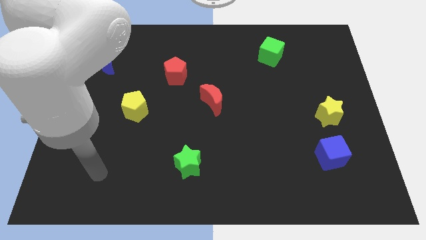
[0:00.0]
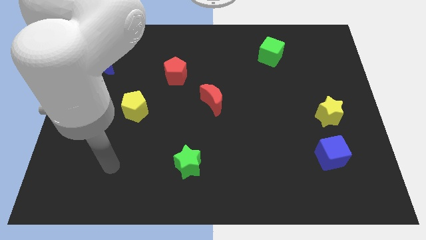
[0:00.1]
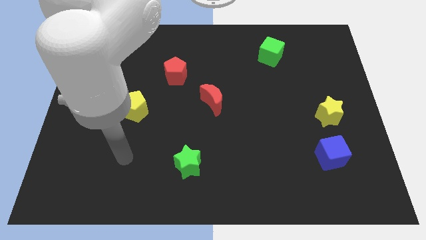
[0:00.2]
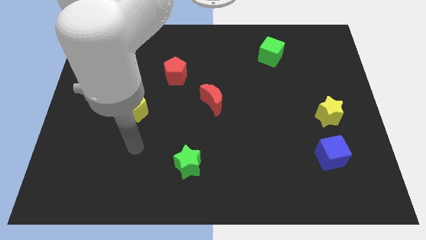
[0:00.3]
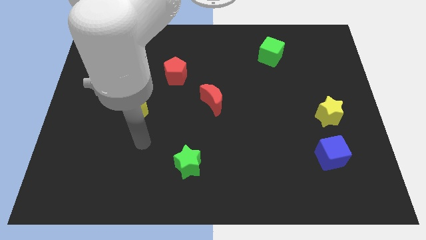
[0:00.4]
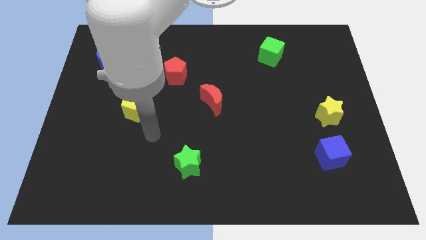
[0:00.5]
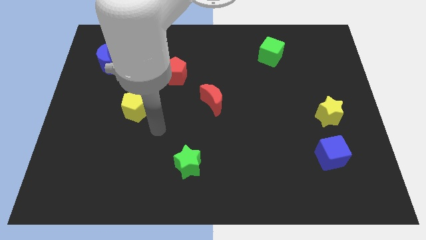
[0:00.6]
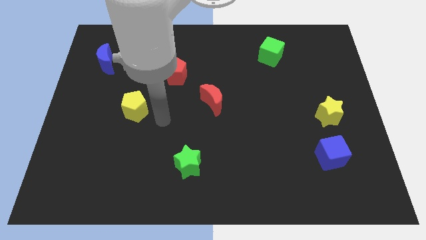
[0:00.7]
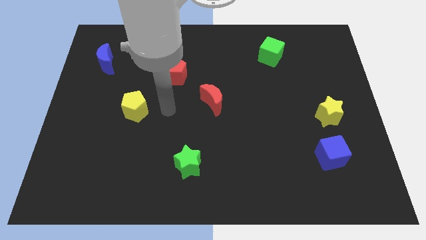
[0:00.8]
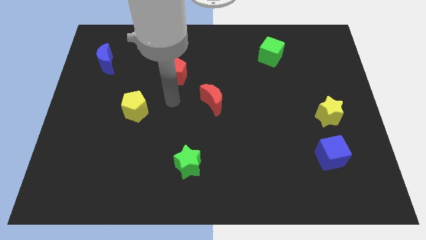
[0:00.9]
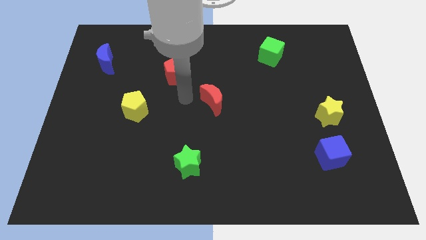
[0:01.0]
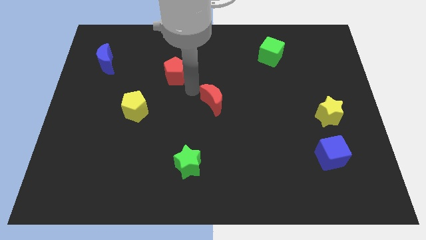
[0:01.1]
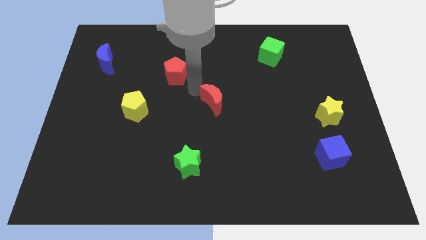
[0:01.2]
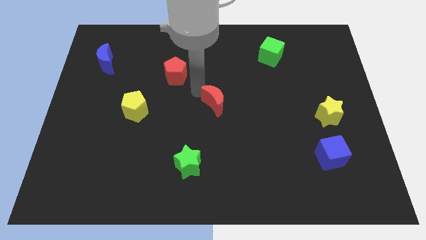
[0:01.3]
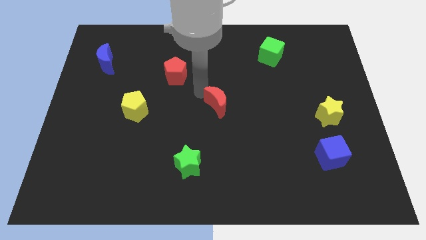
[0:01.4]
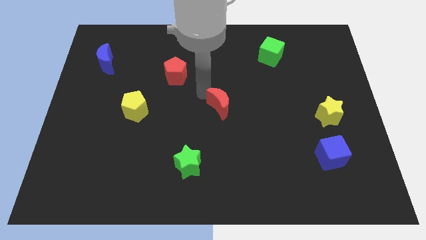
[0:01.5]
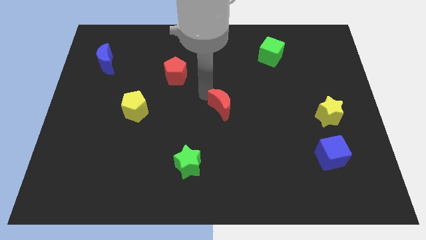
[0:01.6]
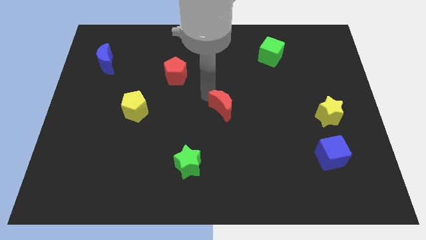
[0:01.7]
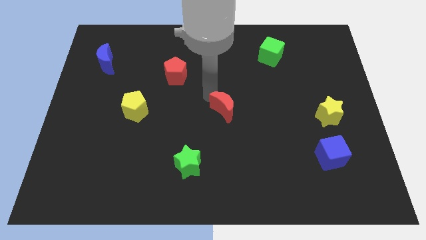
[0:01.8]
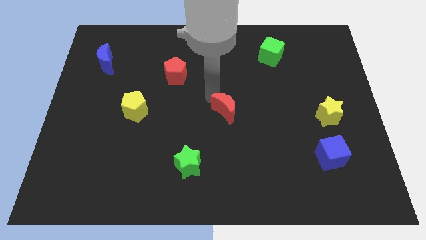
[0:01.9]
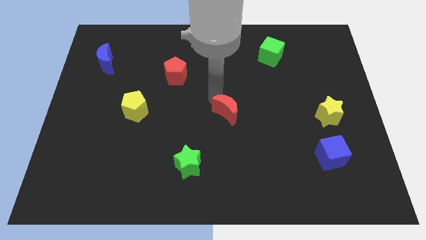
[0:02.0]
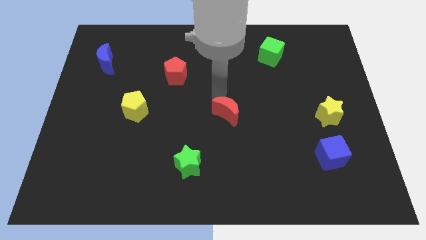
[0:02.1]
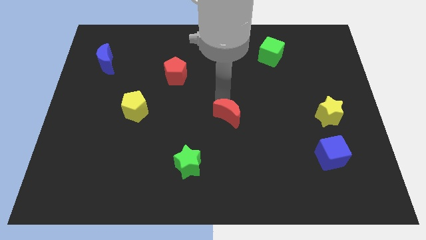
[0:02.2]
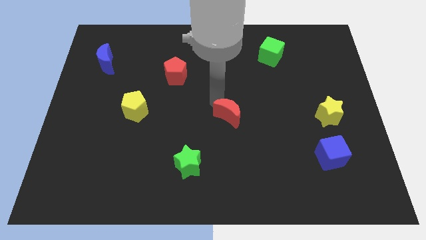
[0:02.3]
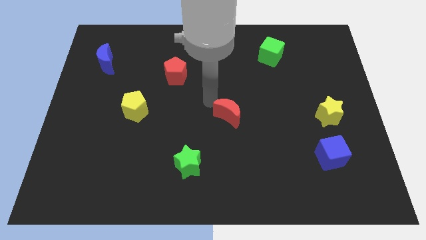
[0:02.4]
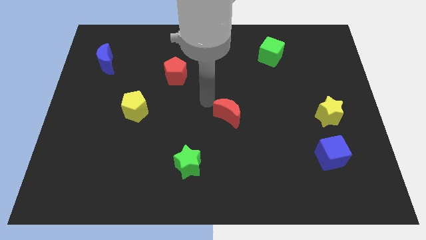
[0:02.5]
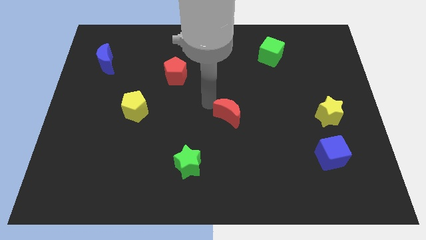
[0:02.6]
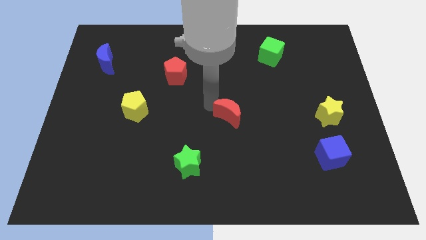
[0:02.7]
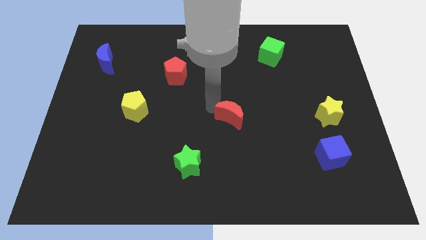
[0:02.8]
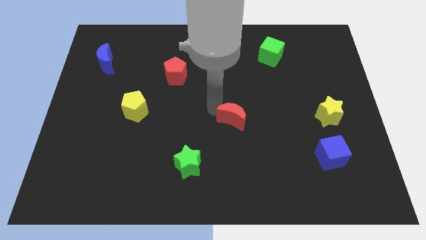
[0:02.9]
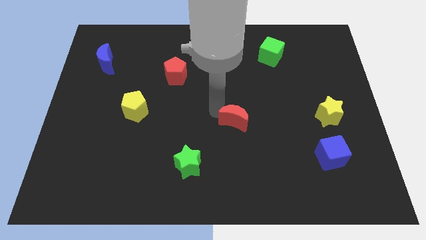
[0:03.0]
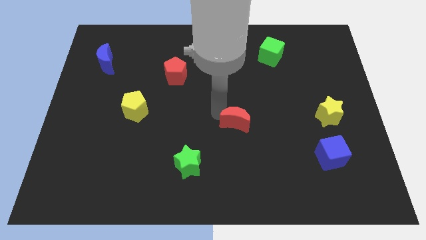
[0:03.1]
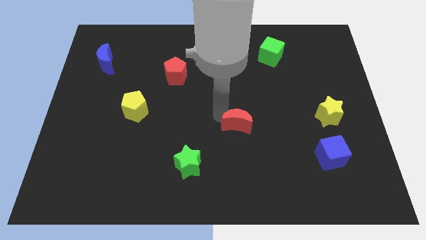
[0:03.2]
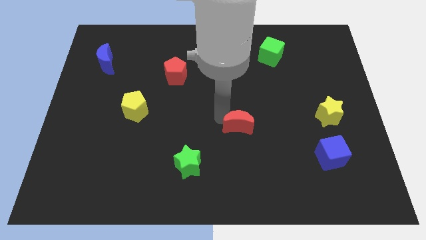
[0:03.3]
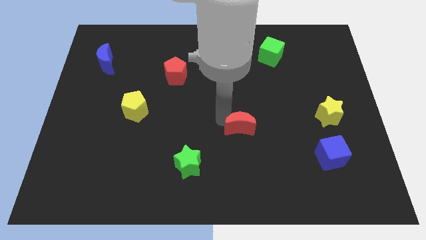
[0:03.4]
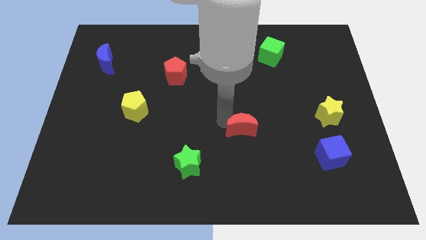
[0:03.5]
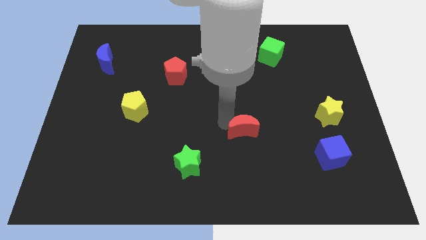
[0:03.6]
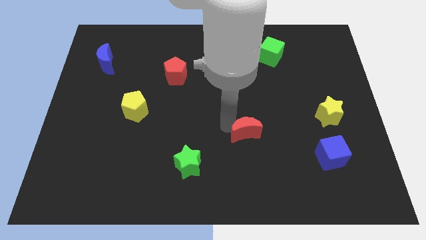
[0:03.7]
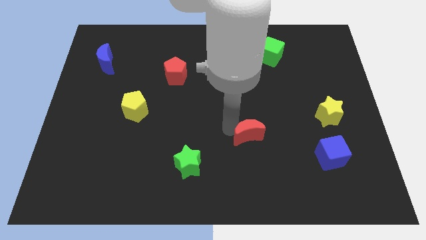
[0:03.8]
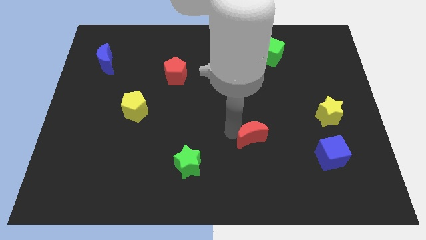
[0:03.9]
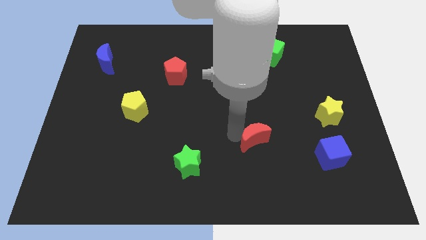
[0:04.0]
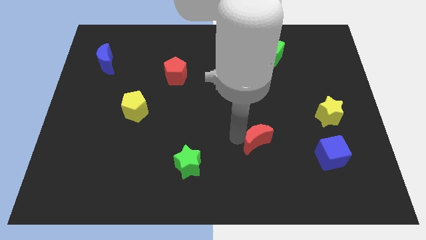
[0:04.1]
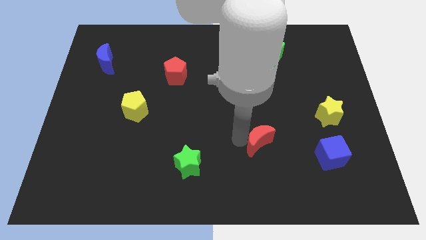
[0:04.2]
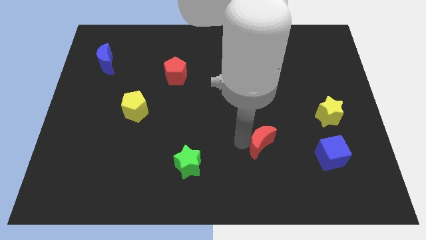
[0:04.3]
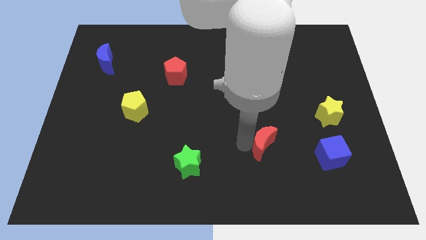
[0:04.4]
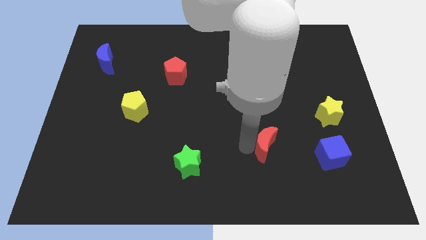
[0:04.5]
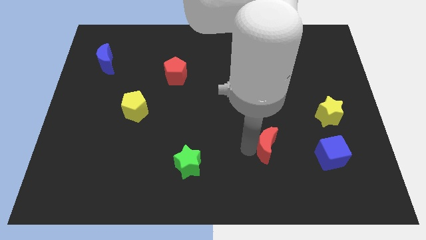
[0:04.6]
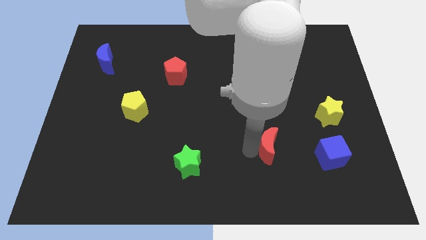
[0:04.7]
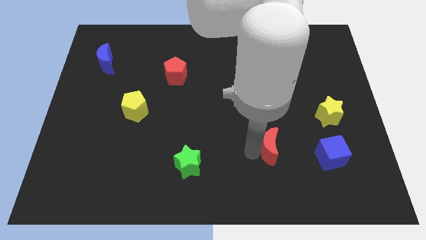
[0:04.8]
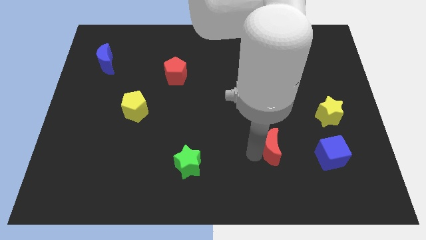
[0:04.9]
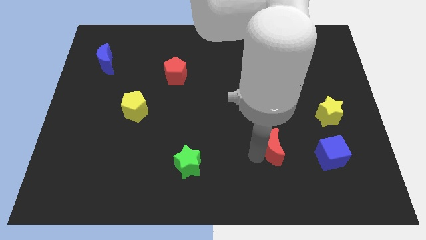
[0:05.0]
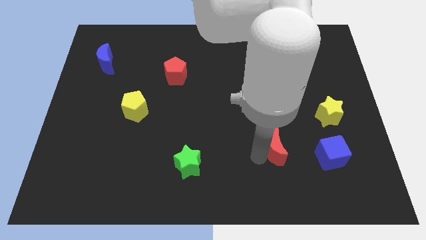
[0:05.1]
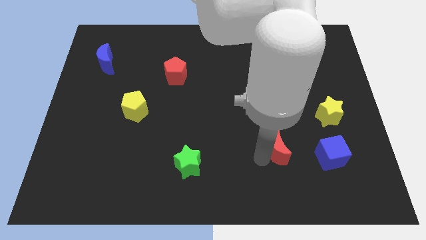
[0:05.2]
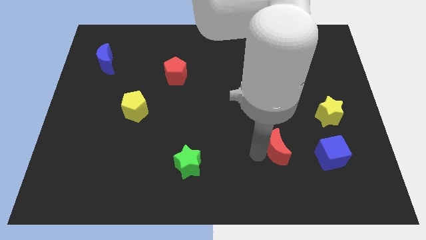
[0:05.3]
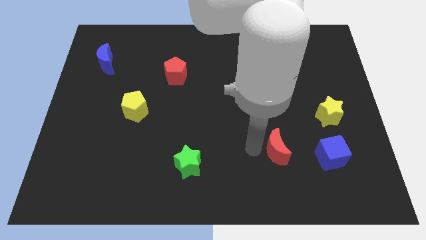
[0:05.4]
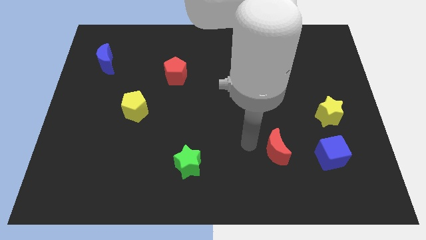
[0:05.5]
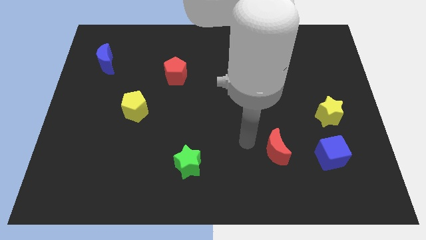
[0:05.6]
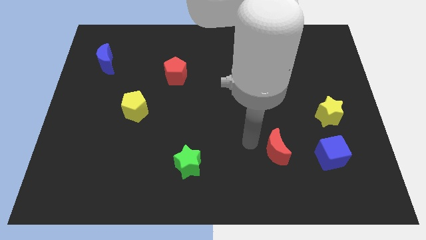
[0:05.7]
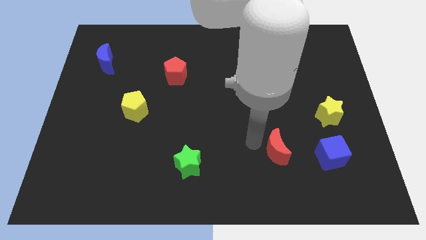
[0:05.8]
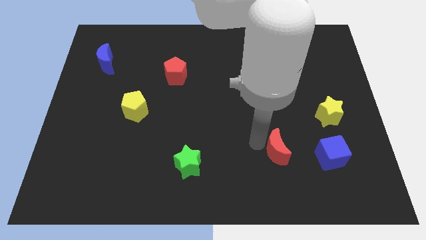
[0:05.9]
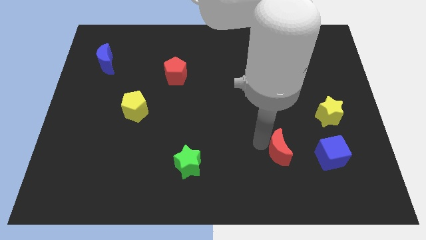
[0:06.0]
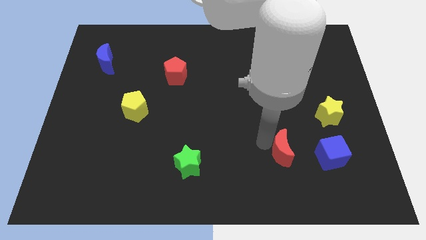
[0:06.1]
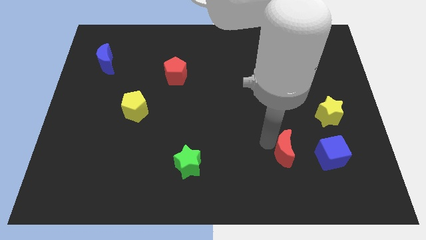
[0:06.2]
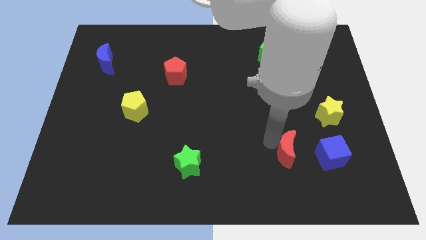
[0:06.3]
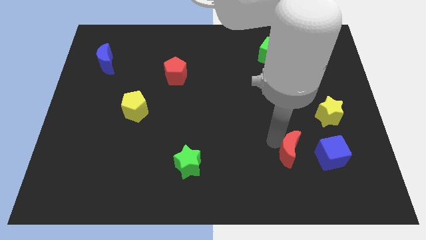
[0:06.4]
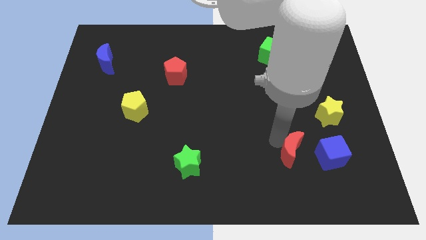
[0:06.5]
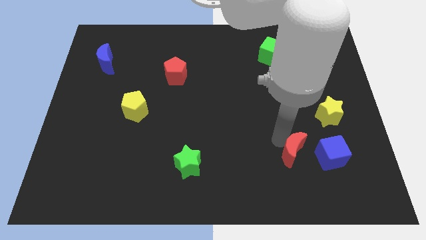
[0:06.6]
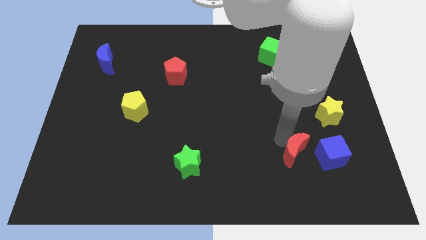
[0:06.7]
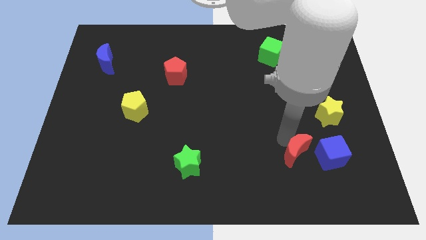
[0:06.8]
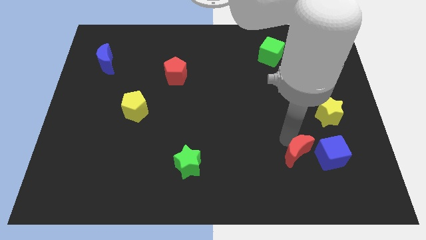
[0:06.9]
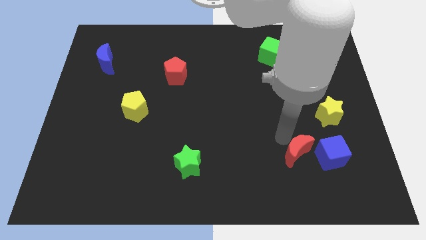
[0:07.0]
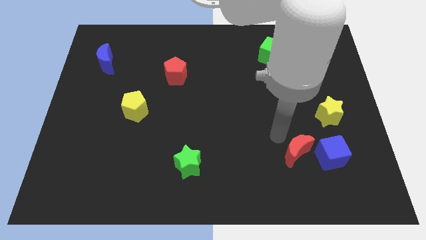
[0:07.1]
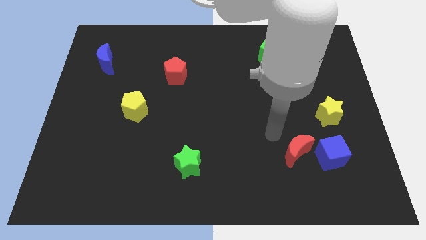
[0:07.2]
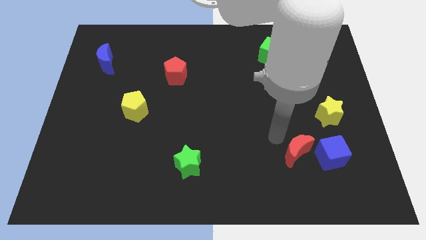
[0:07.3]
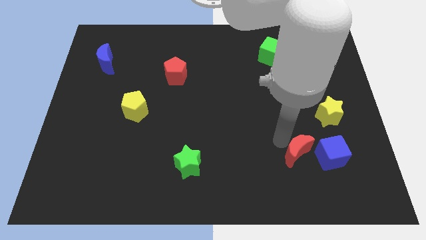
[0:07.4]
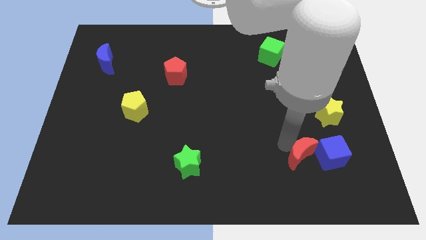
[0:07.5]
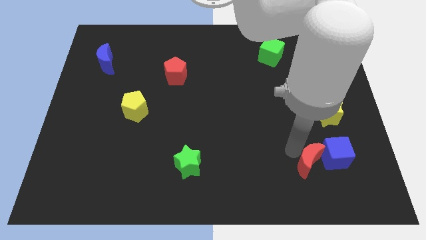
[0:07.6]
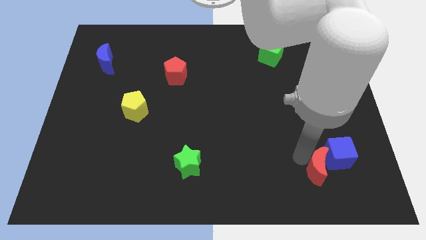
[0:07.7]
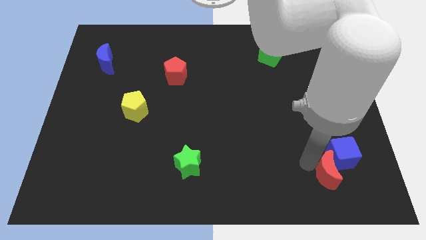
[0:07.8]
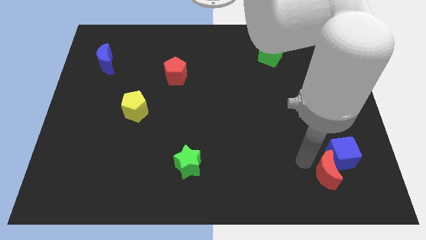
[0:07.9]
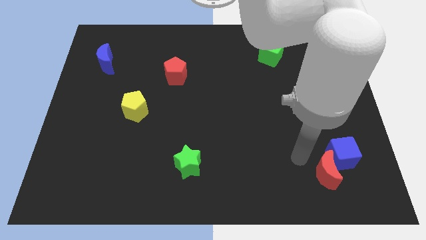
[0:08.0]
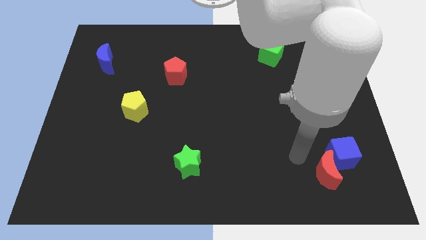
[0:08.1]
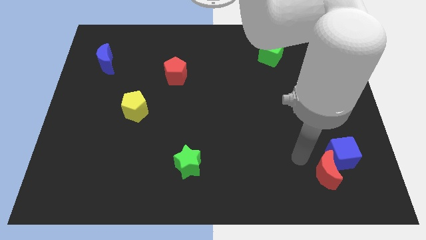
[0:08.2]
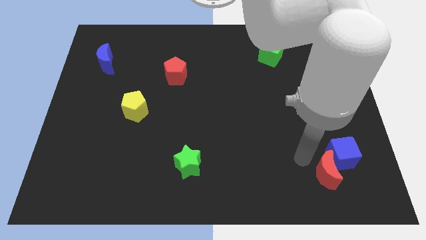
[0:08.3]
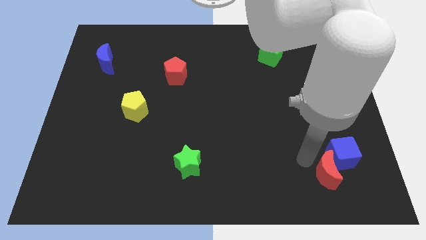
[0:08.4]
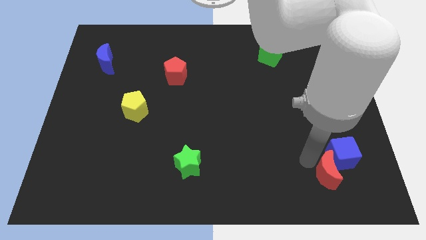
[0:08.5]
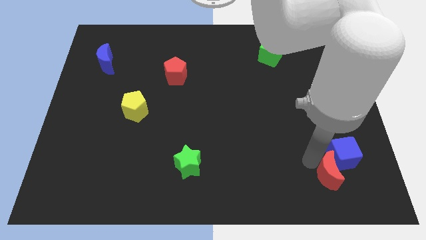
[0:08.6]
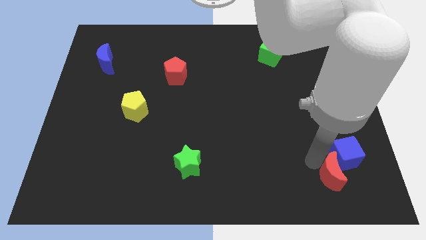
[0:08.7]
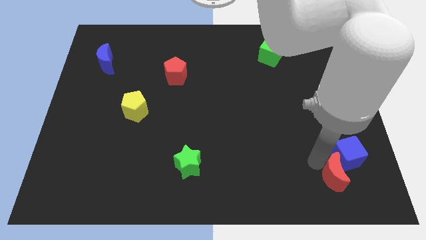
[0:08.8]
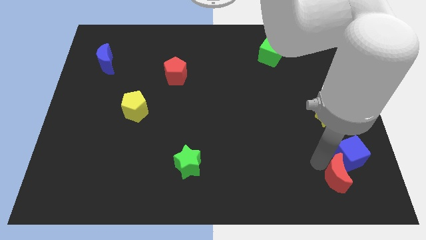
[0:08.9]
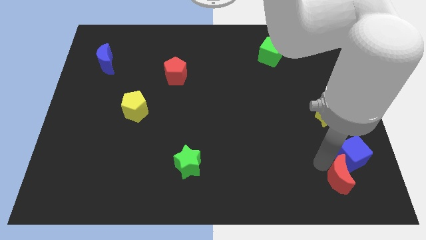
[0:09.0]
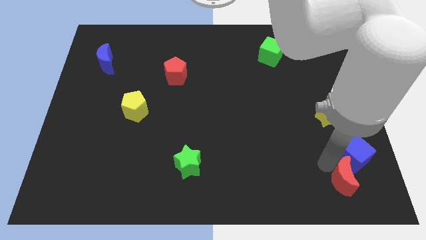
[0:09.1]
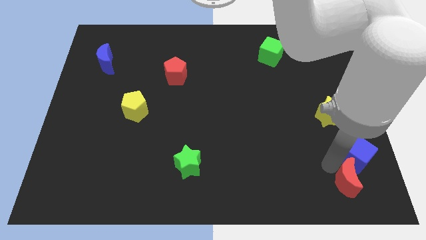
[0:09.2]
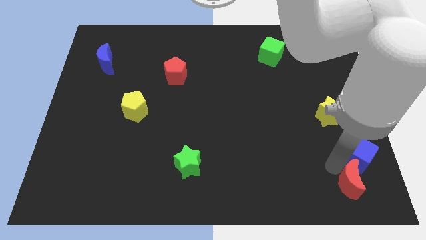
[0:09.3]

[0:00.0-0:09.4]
slide the red moon to the lower right corner
